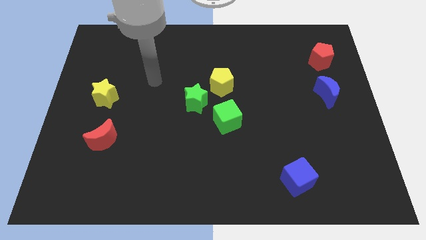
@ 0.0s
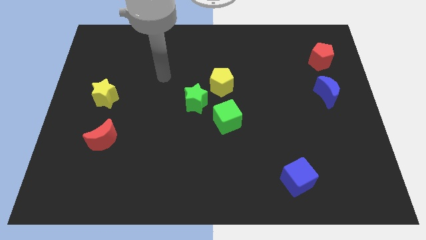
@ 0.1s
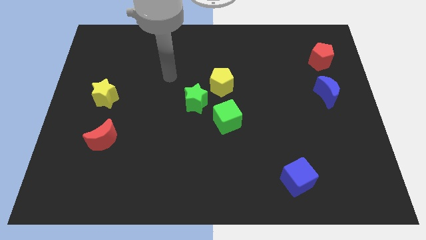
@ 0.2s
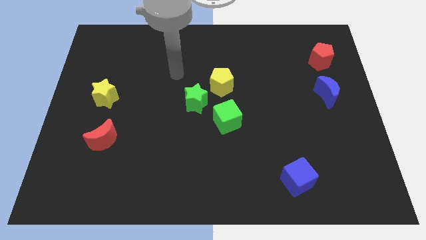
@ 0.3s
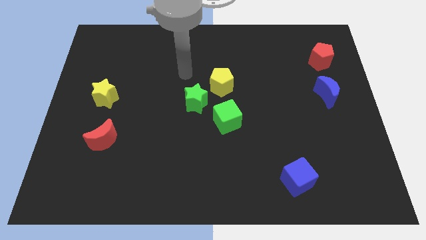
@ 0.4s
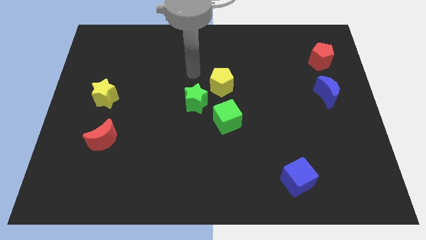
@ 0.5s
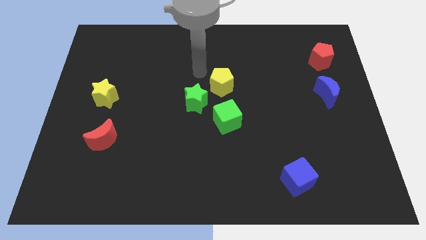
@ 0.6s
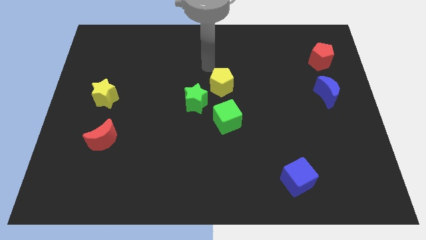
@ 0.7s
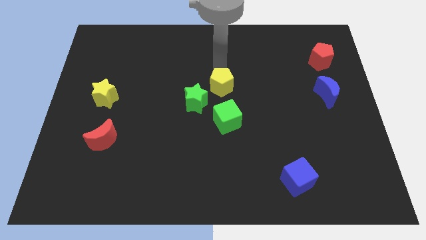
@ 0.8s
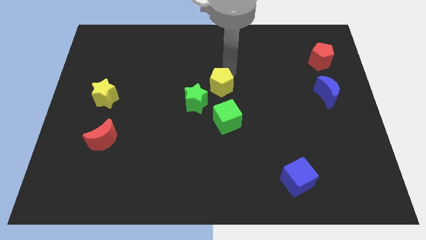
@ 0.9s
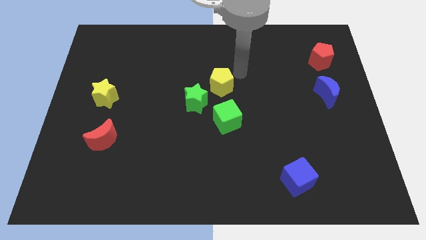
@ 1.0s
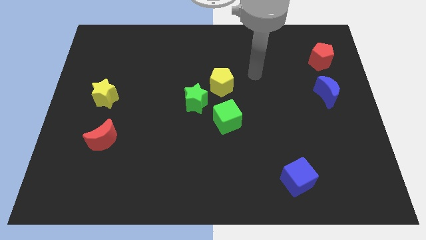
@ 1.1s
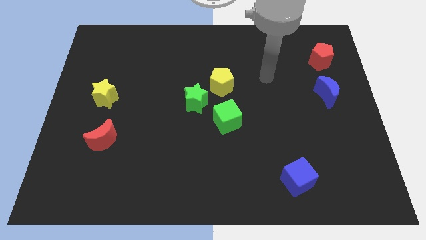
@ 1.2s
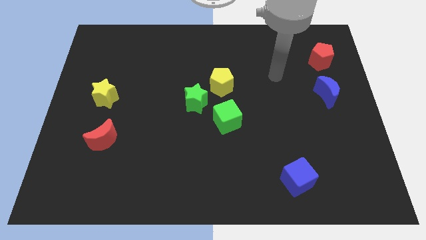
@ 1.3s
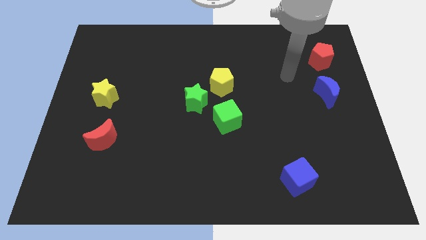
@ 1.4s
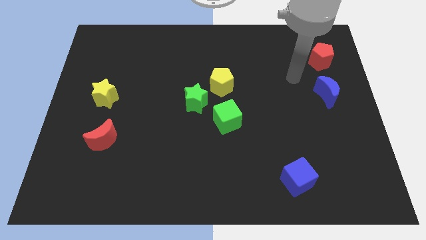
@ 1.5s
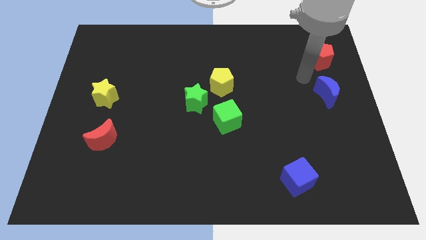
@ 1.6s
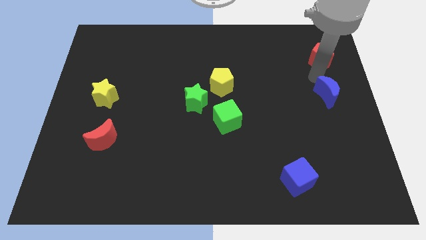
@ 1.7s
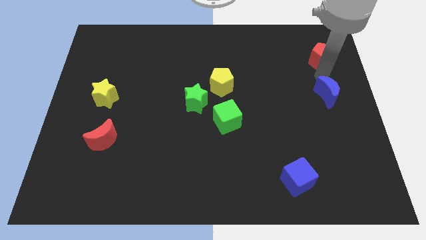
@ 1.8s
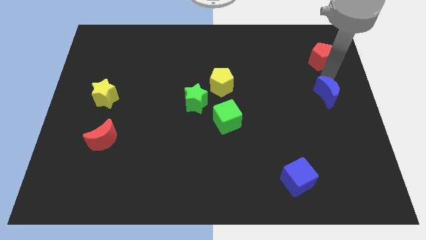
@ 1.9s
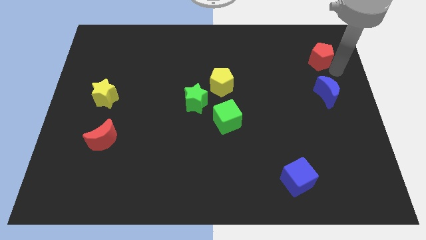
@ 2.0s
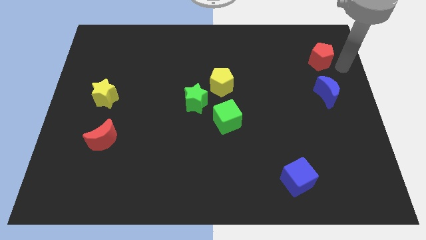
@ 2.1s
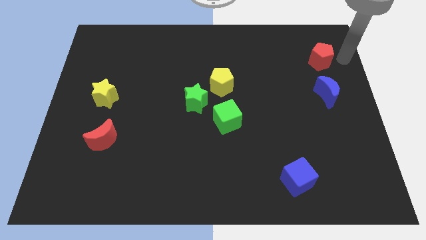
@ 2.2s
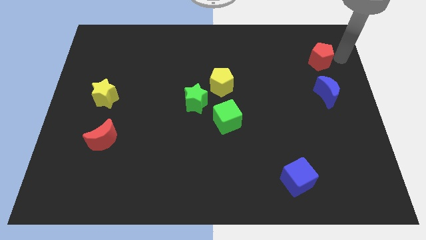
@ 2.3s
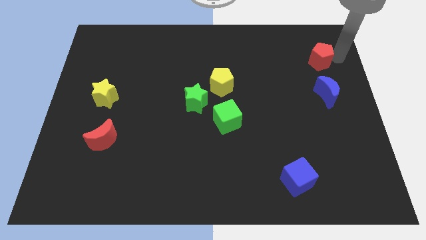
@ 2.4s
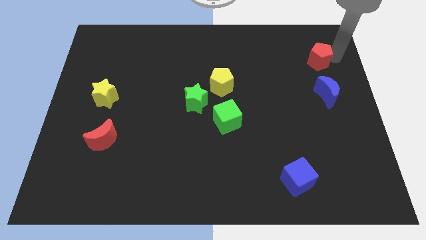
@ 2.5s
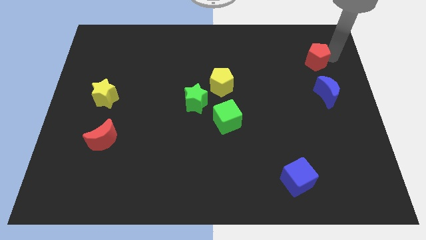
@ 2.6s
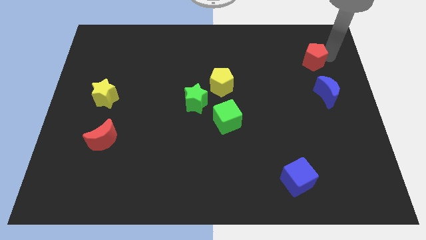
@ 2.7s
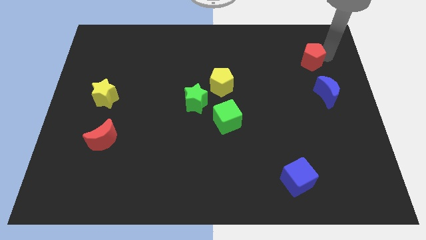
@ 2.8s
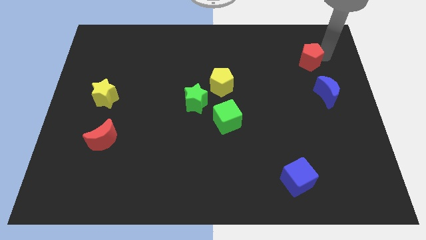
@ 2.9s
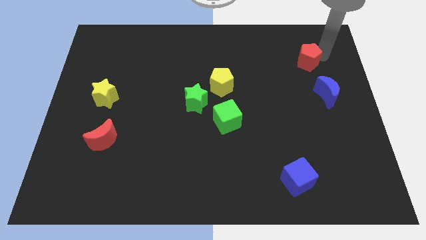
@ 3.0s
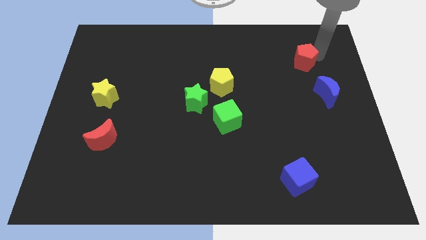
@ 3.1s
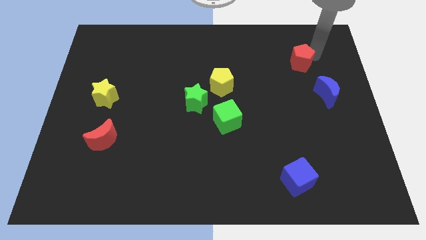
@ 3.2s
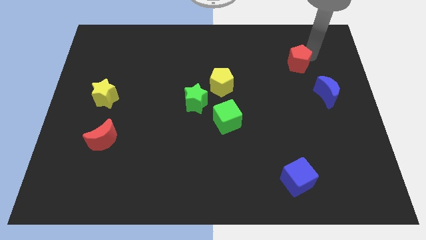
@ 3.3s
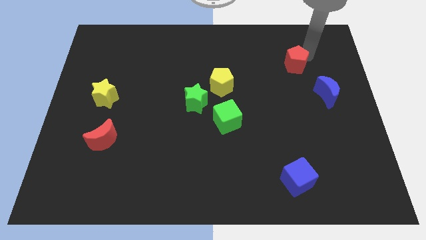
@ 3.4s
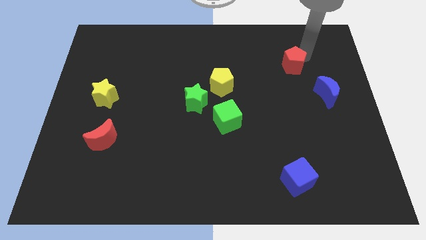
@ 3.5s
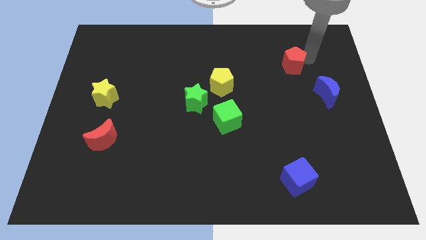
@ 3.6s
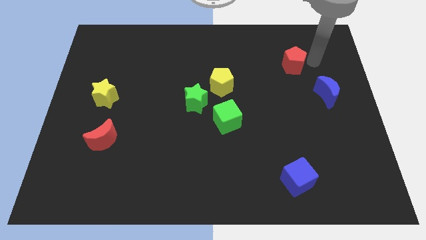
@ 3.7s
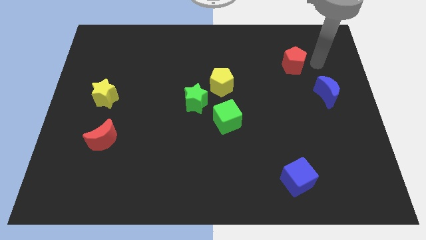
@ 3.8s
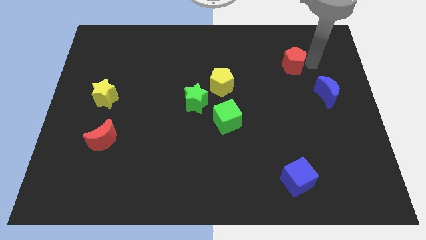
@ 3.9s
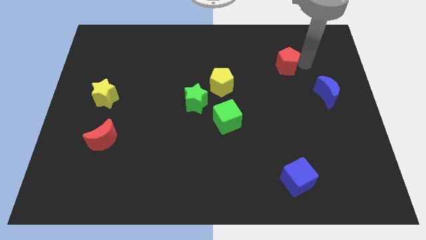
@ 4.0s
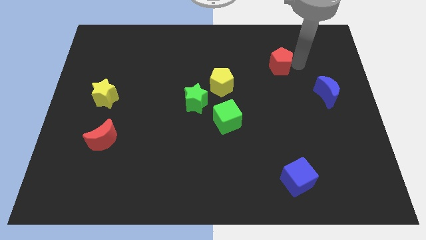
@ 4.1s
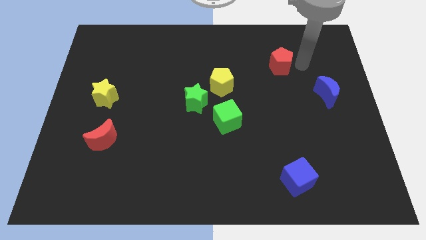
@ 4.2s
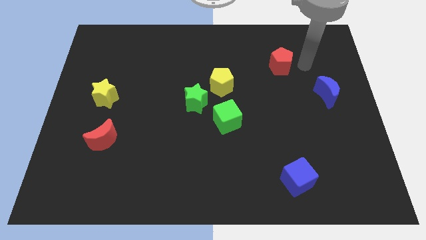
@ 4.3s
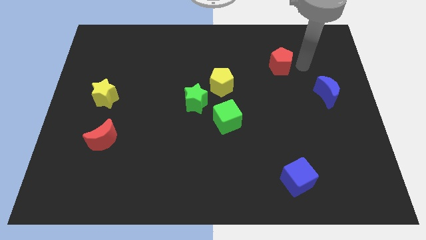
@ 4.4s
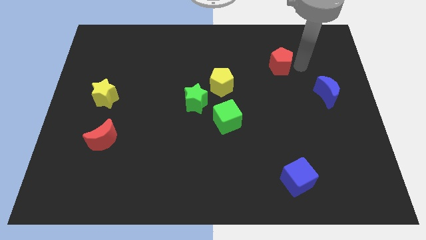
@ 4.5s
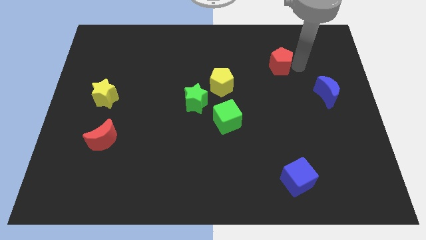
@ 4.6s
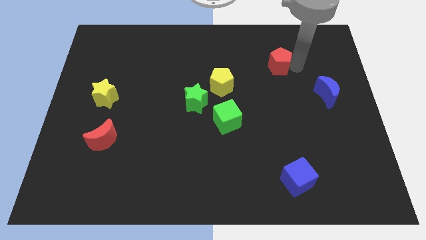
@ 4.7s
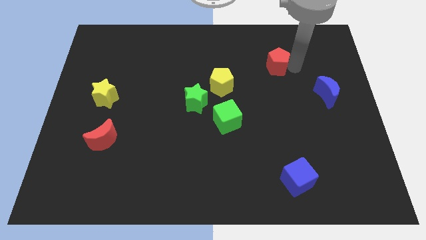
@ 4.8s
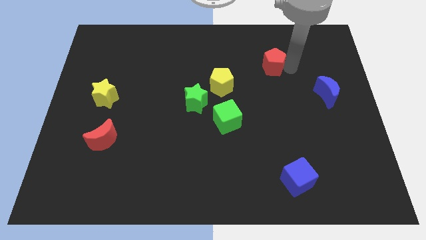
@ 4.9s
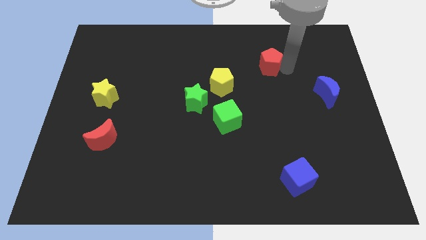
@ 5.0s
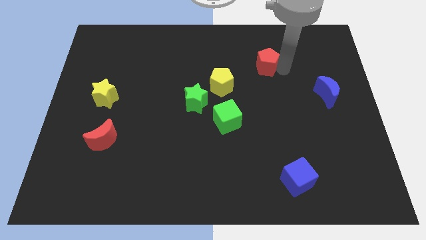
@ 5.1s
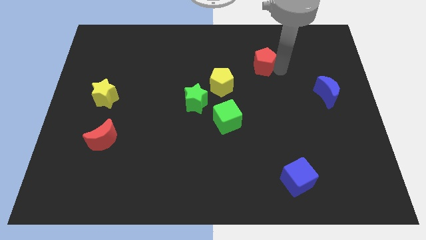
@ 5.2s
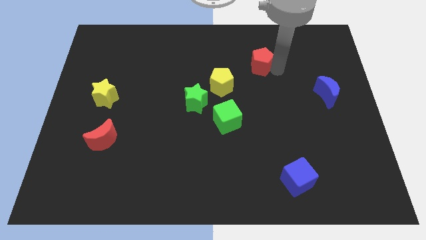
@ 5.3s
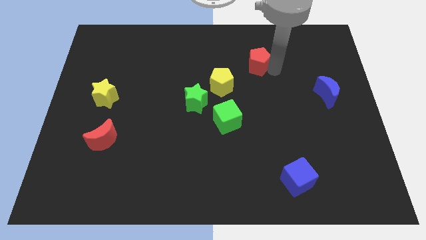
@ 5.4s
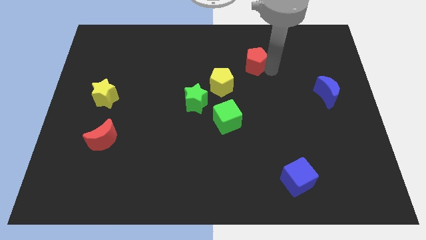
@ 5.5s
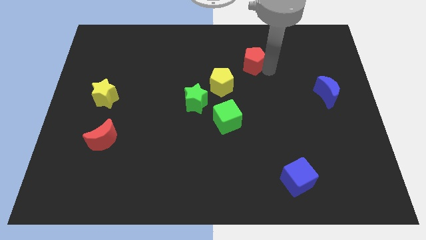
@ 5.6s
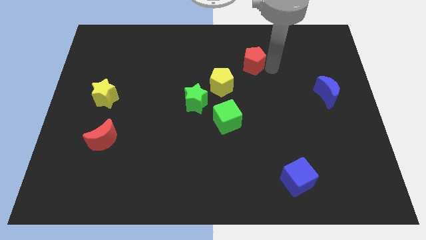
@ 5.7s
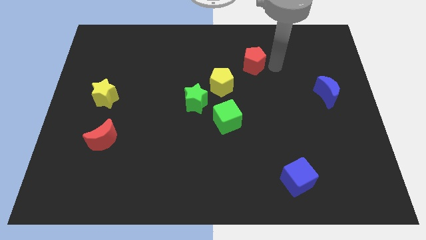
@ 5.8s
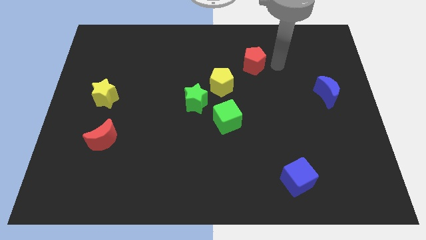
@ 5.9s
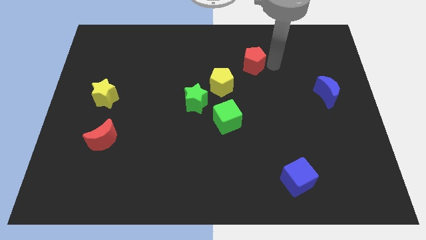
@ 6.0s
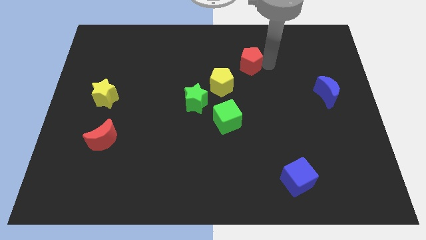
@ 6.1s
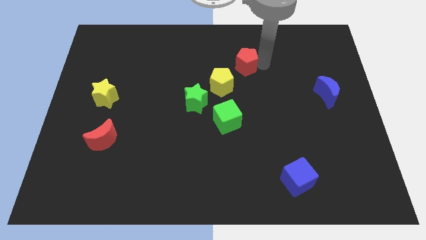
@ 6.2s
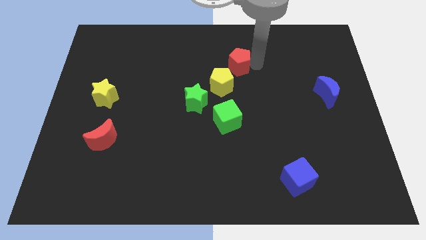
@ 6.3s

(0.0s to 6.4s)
push the red pentagon to the left

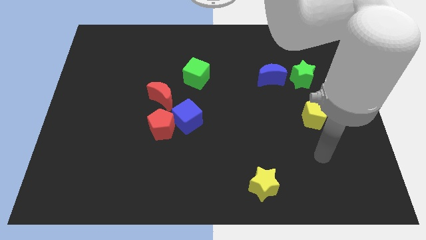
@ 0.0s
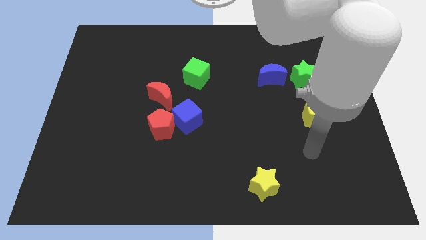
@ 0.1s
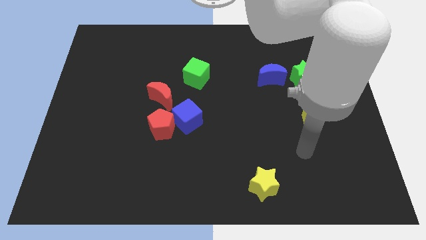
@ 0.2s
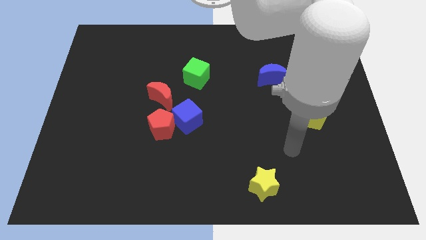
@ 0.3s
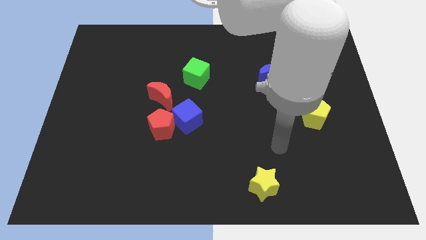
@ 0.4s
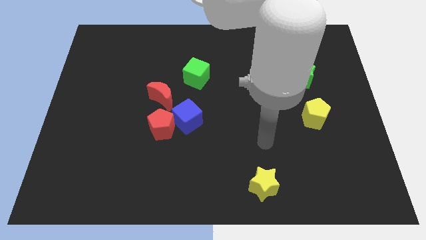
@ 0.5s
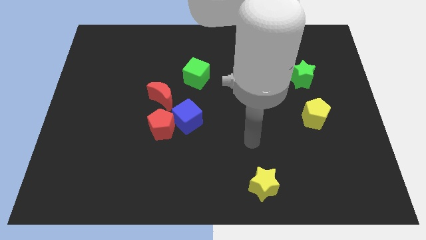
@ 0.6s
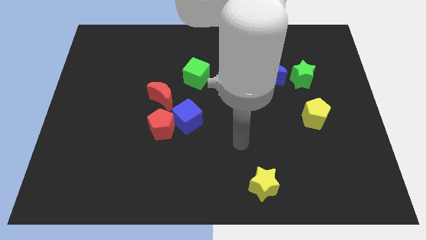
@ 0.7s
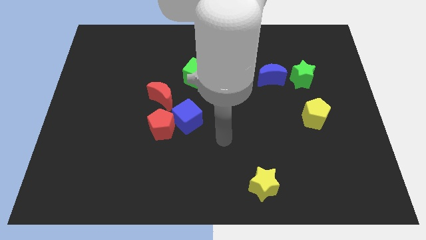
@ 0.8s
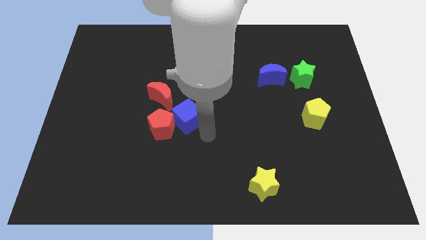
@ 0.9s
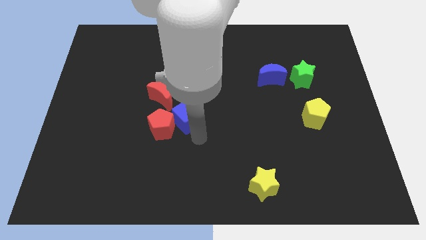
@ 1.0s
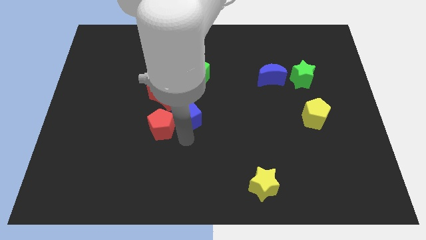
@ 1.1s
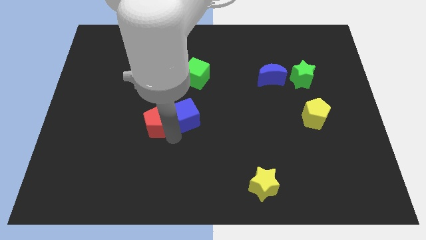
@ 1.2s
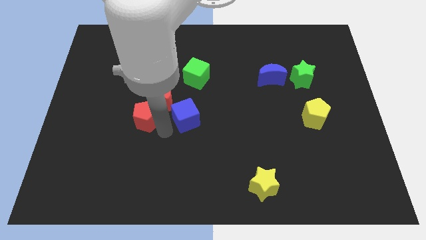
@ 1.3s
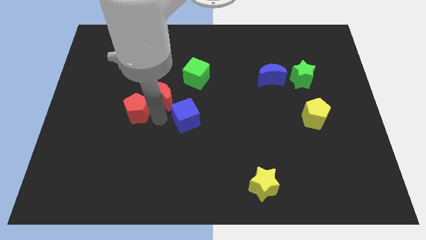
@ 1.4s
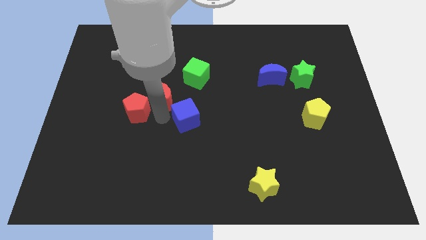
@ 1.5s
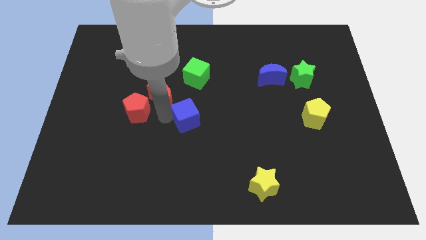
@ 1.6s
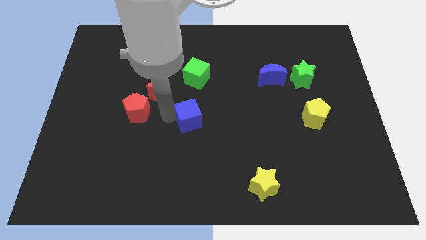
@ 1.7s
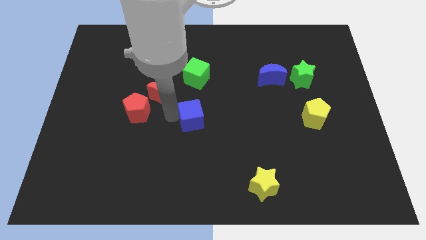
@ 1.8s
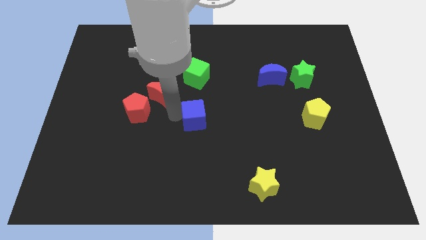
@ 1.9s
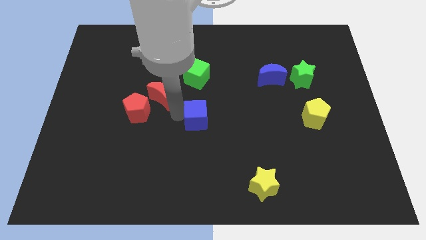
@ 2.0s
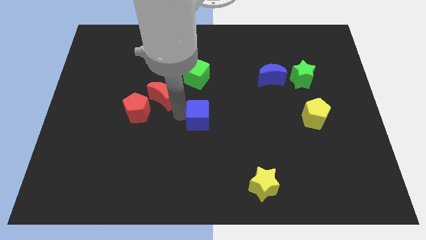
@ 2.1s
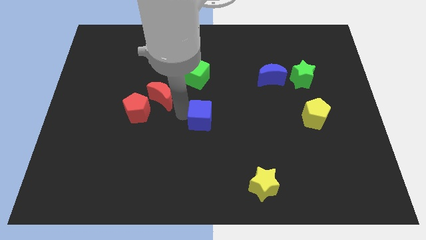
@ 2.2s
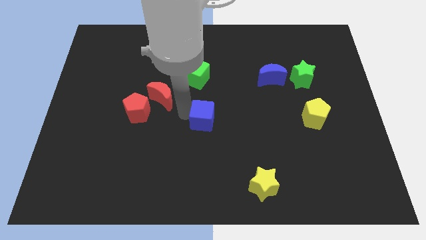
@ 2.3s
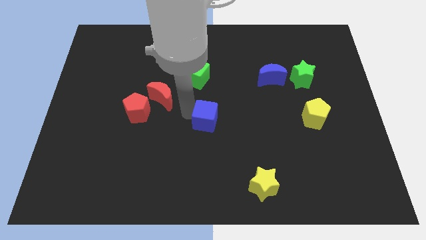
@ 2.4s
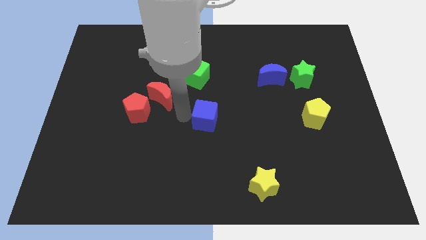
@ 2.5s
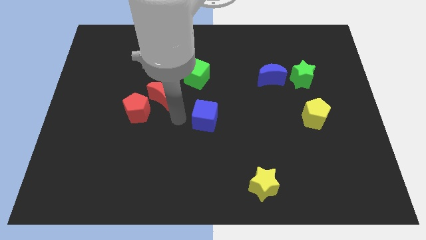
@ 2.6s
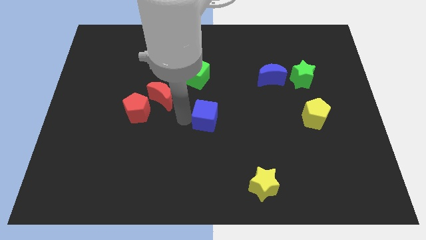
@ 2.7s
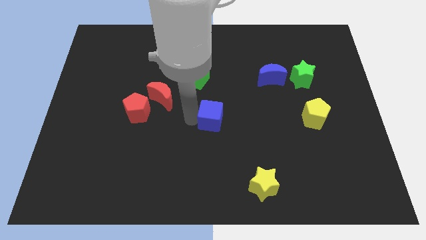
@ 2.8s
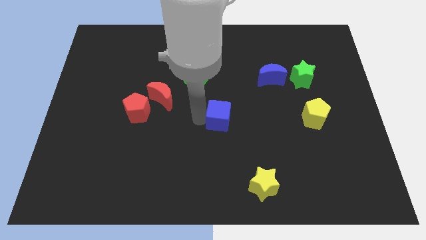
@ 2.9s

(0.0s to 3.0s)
push the blue cube slightly to the right
